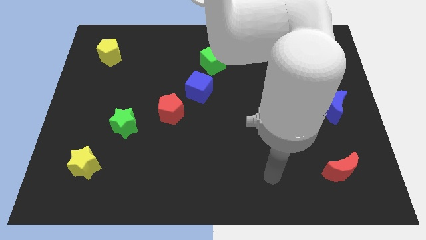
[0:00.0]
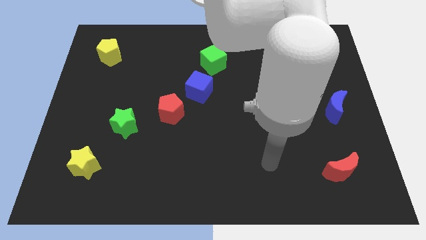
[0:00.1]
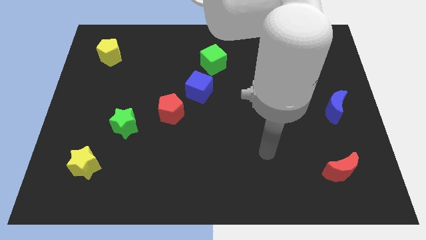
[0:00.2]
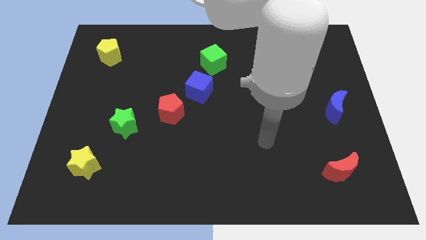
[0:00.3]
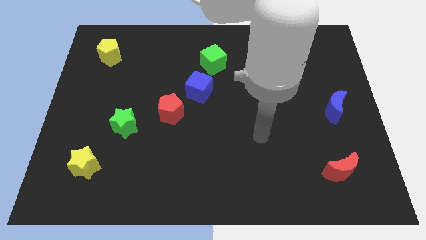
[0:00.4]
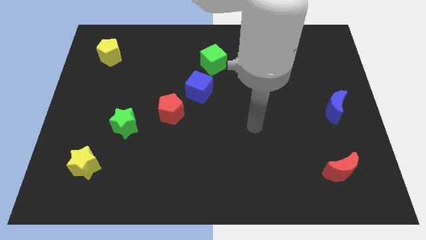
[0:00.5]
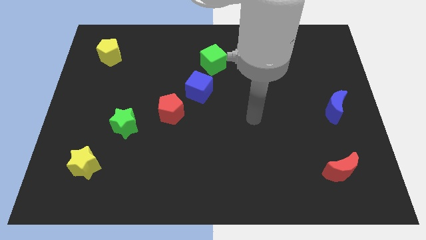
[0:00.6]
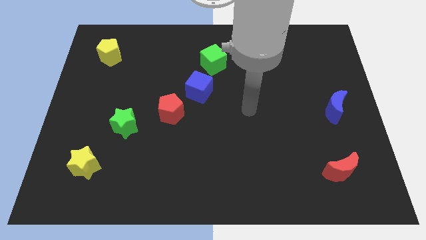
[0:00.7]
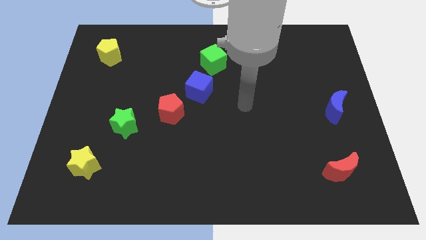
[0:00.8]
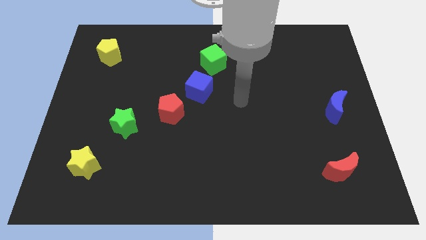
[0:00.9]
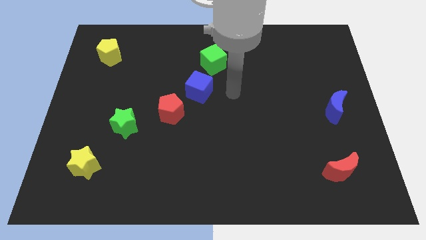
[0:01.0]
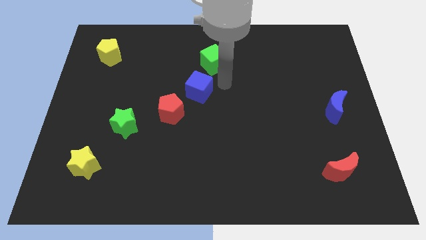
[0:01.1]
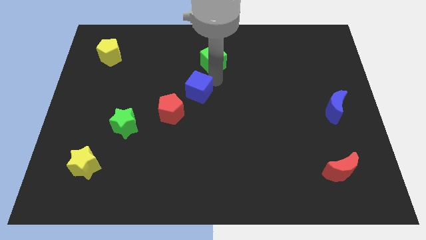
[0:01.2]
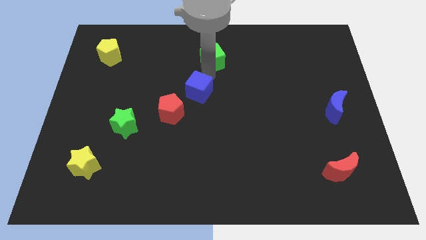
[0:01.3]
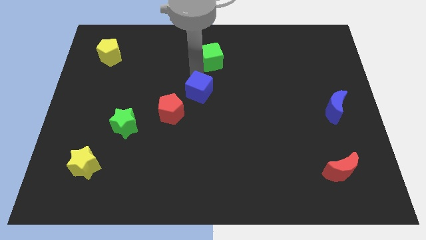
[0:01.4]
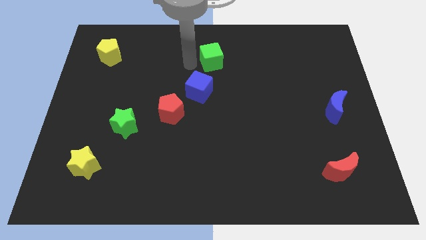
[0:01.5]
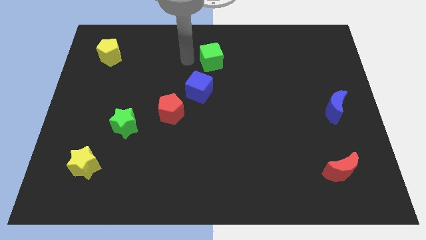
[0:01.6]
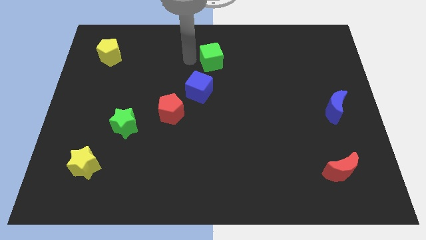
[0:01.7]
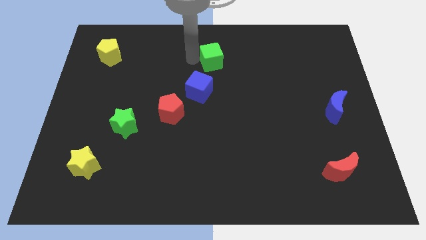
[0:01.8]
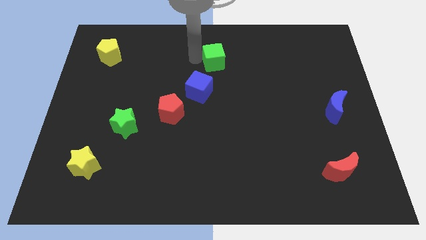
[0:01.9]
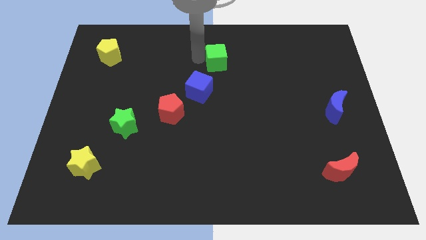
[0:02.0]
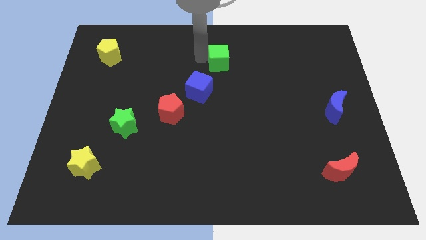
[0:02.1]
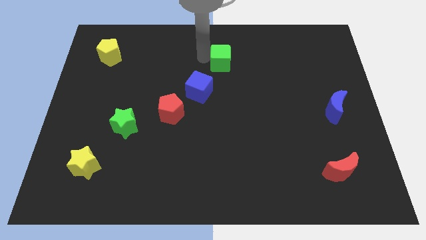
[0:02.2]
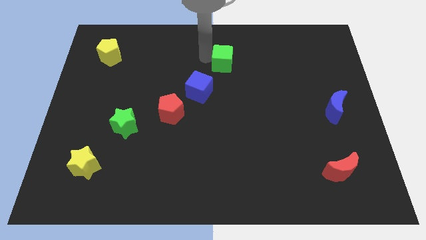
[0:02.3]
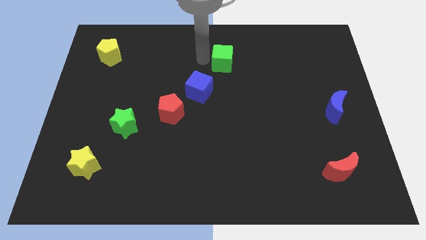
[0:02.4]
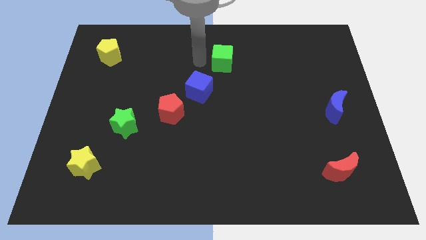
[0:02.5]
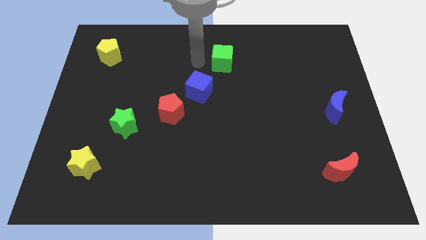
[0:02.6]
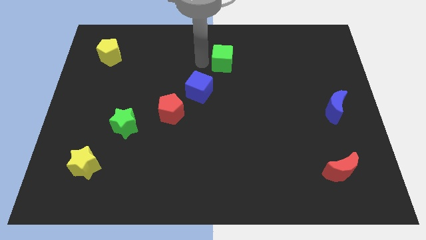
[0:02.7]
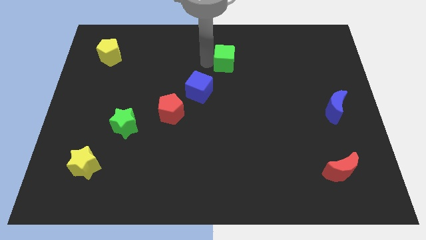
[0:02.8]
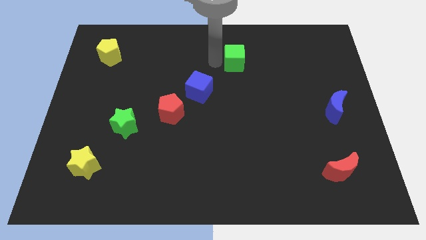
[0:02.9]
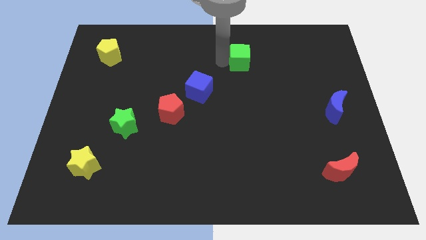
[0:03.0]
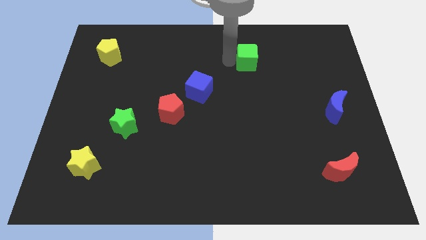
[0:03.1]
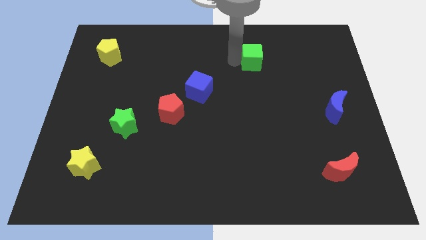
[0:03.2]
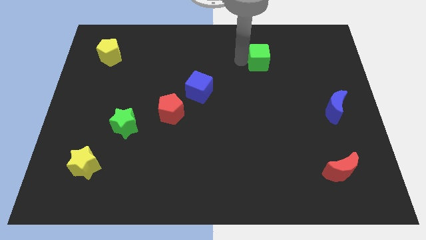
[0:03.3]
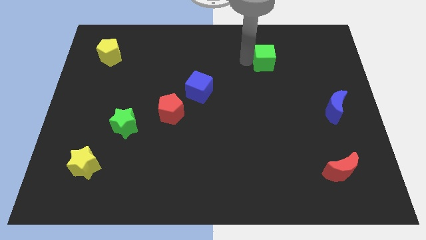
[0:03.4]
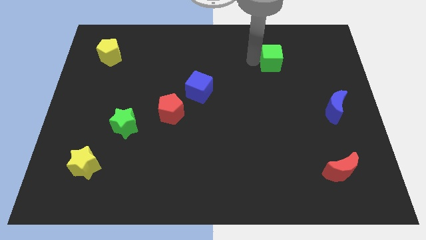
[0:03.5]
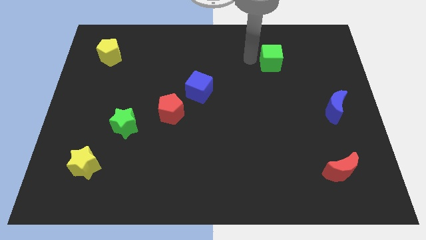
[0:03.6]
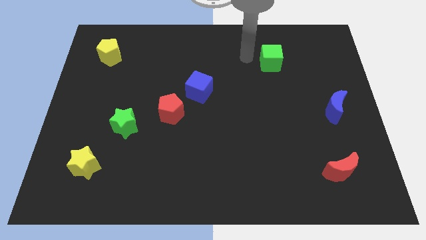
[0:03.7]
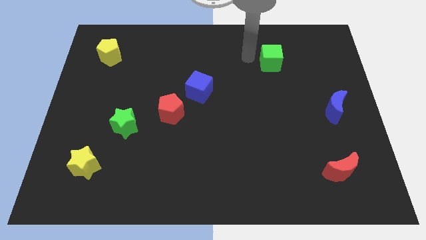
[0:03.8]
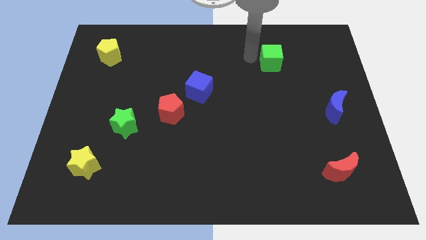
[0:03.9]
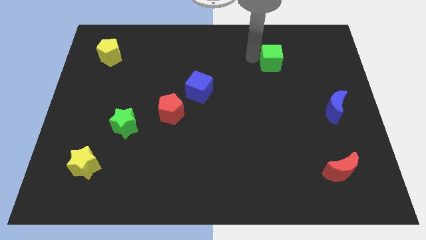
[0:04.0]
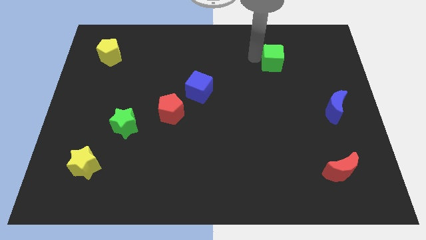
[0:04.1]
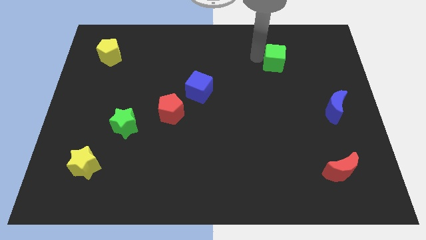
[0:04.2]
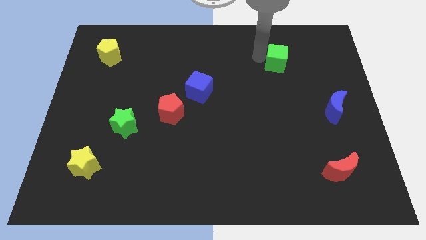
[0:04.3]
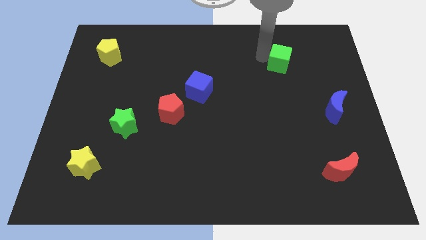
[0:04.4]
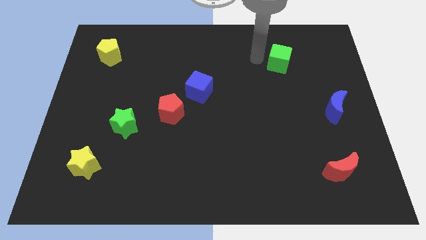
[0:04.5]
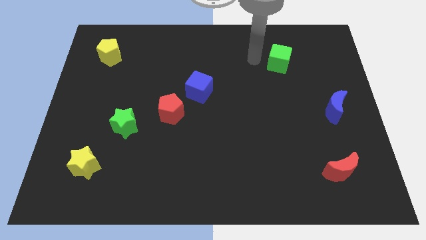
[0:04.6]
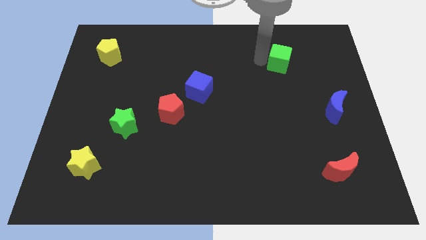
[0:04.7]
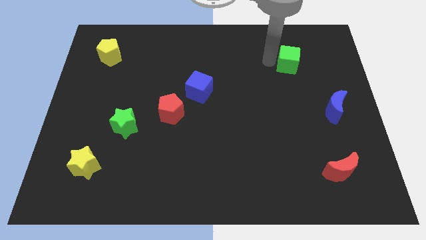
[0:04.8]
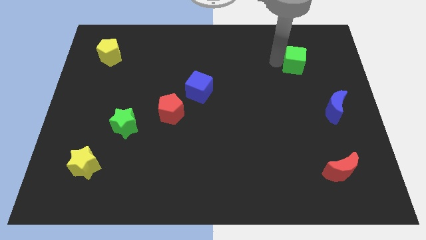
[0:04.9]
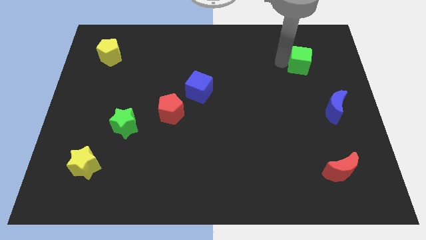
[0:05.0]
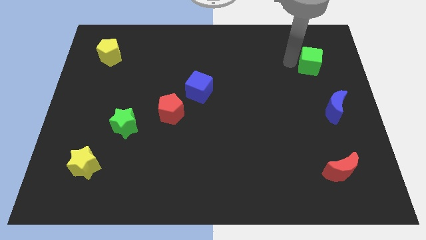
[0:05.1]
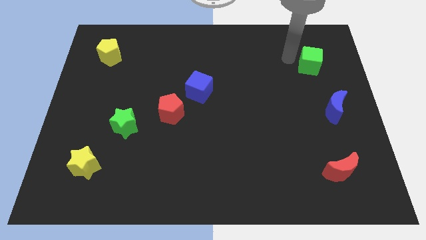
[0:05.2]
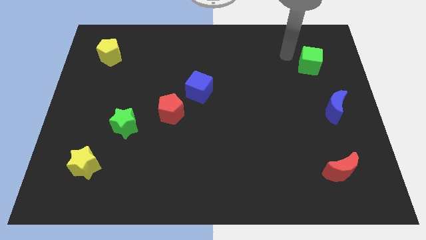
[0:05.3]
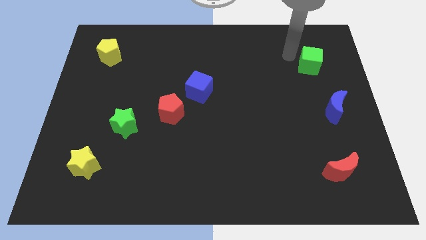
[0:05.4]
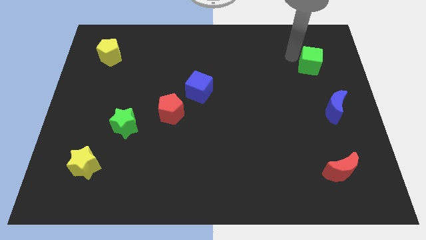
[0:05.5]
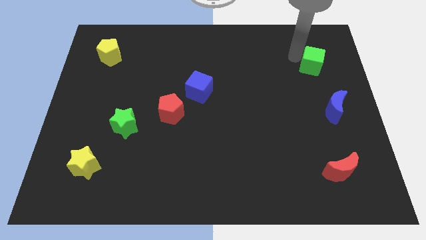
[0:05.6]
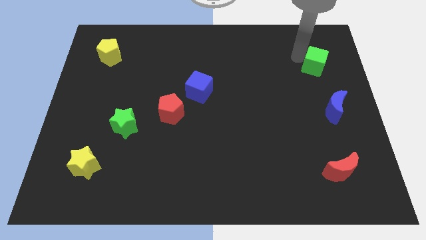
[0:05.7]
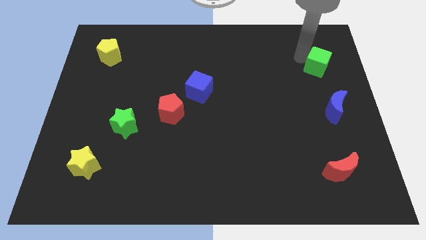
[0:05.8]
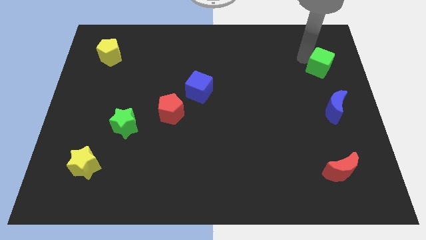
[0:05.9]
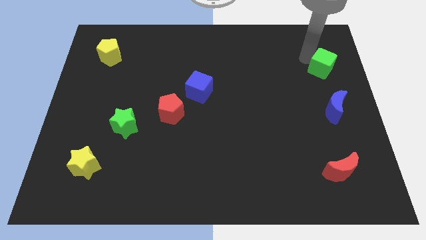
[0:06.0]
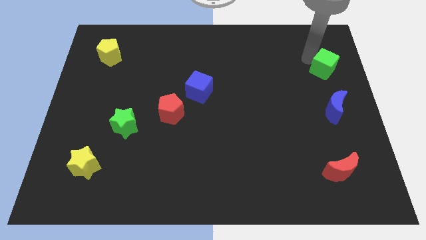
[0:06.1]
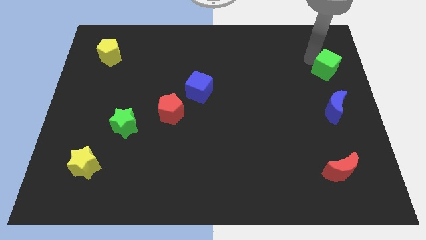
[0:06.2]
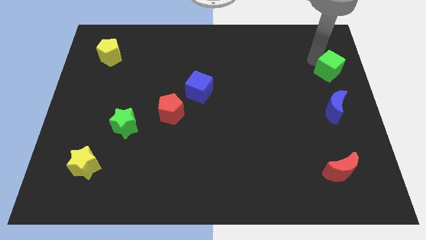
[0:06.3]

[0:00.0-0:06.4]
push the green cube to the center right

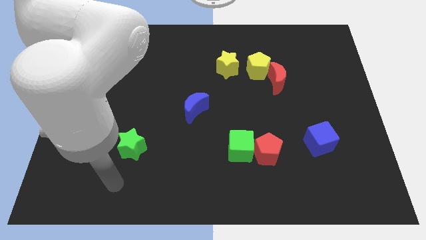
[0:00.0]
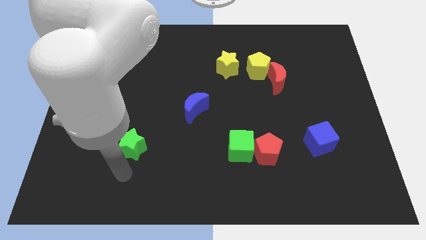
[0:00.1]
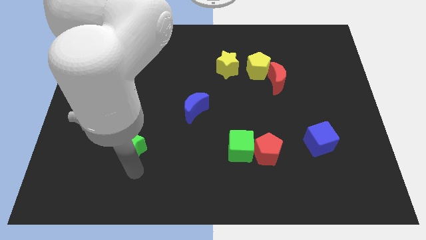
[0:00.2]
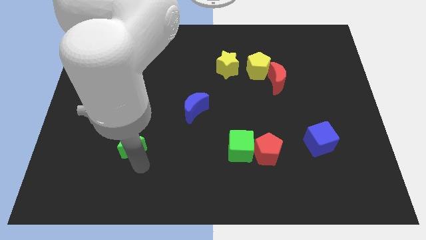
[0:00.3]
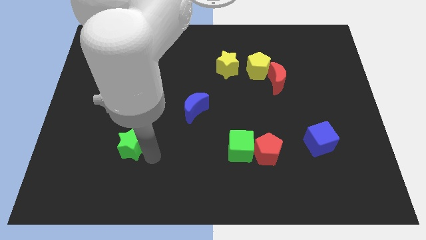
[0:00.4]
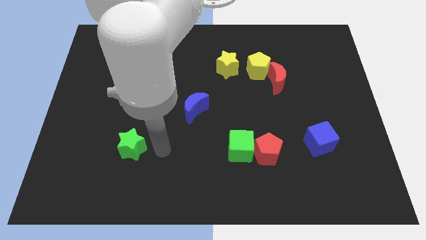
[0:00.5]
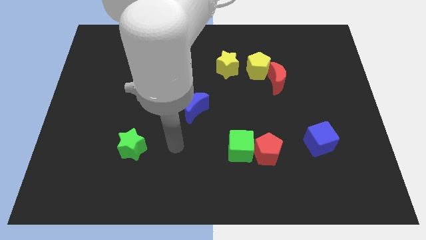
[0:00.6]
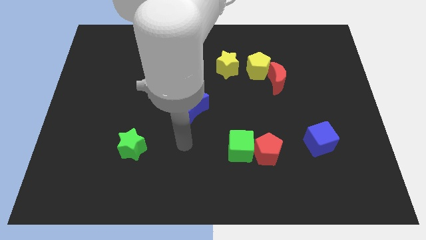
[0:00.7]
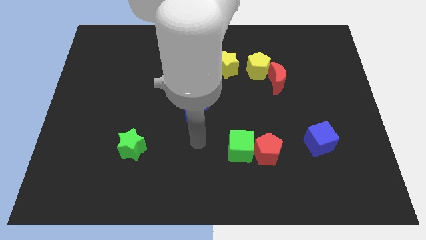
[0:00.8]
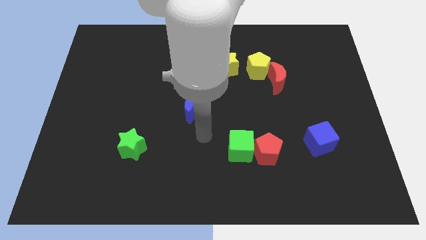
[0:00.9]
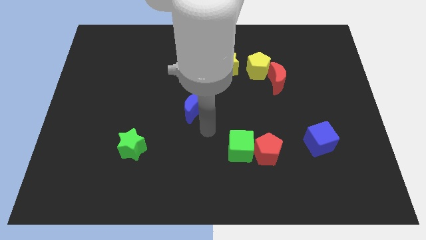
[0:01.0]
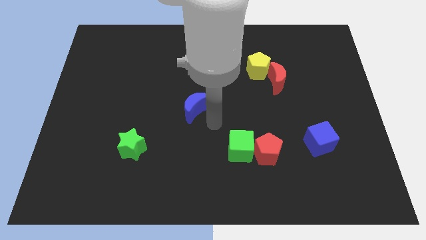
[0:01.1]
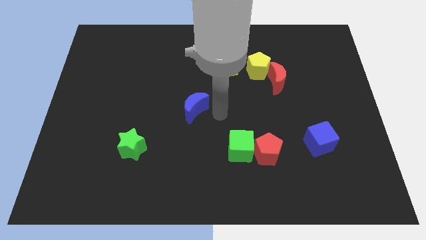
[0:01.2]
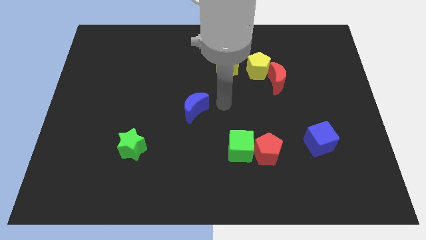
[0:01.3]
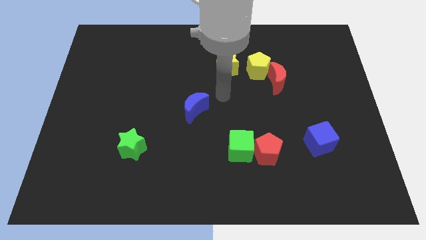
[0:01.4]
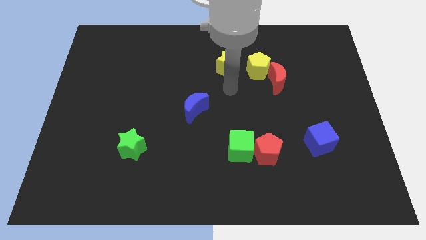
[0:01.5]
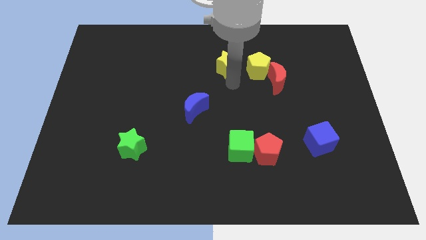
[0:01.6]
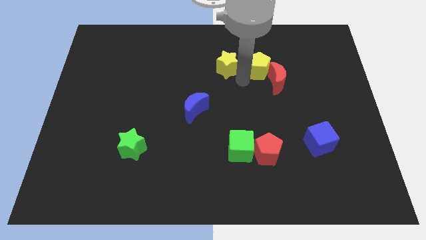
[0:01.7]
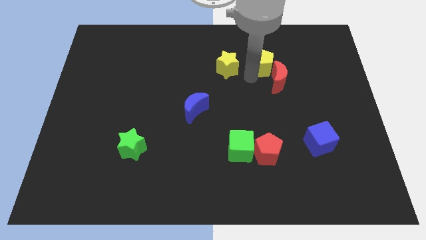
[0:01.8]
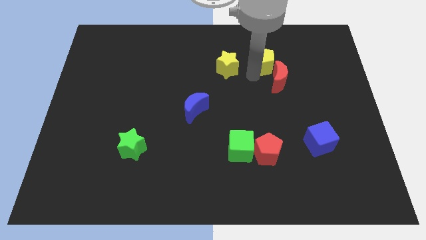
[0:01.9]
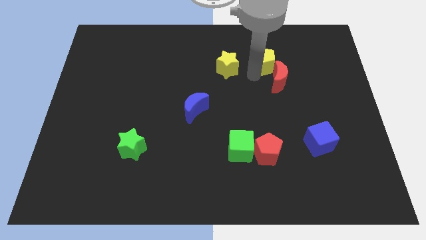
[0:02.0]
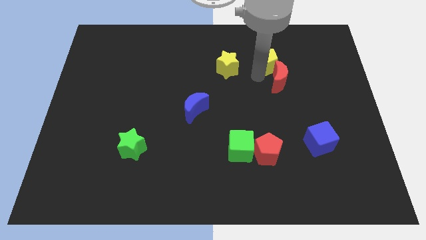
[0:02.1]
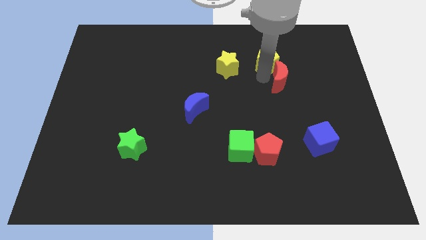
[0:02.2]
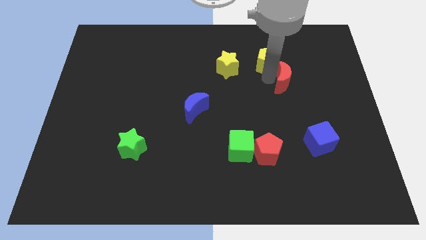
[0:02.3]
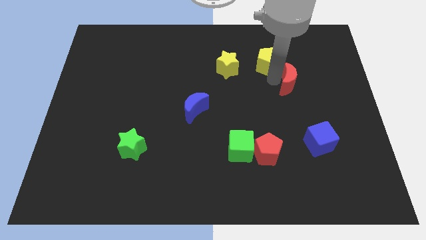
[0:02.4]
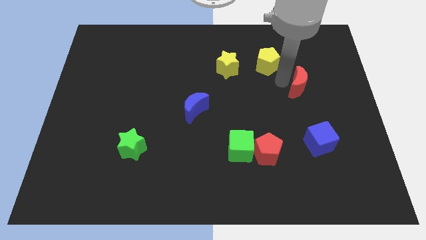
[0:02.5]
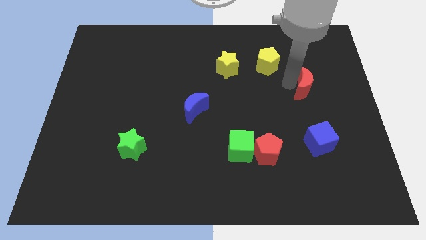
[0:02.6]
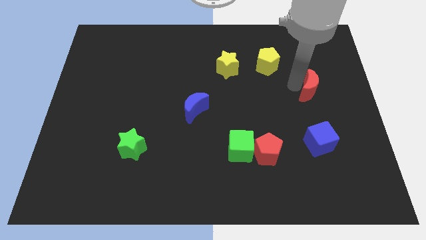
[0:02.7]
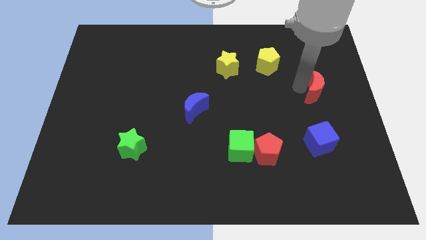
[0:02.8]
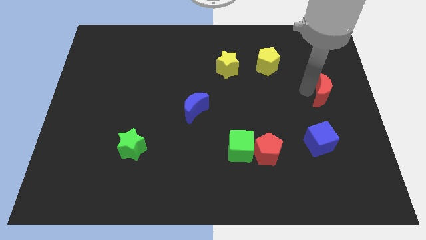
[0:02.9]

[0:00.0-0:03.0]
slide the red moon to the right side
